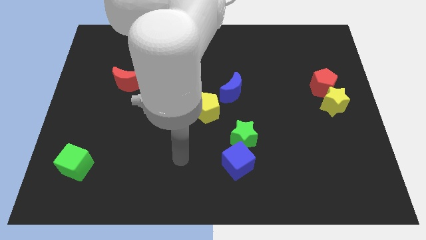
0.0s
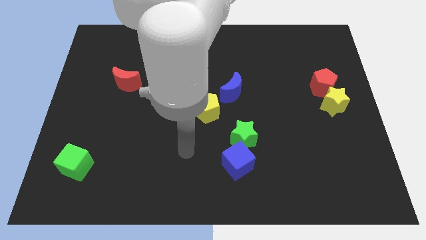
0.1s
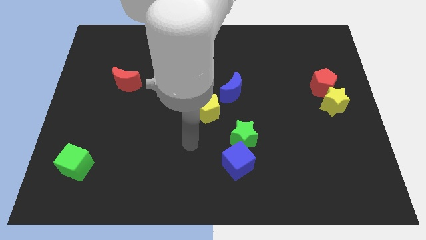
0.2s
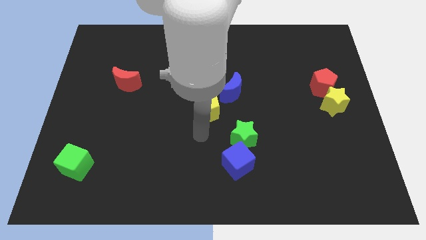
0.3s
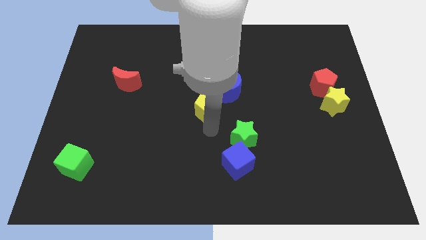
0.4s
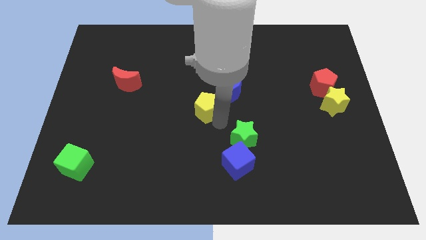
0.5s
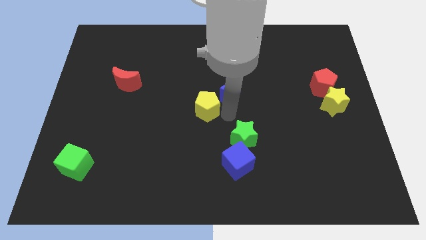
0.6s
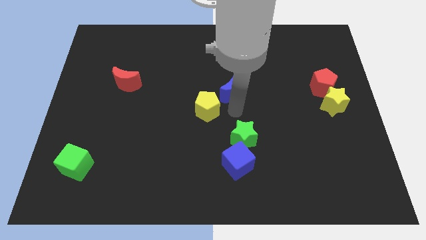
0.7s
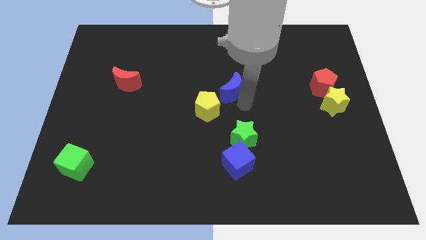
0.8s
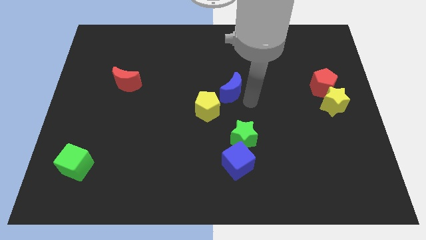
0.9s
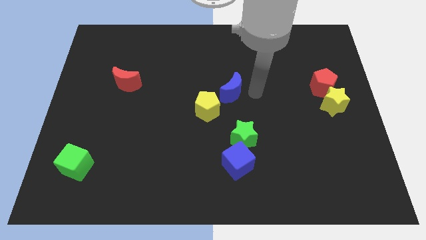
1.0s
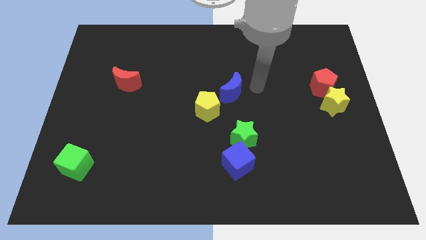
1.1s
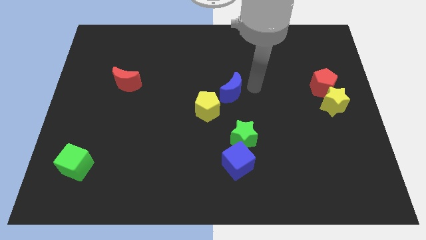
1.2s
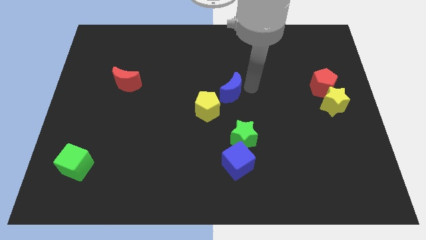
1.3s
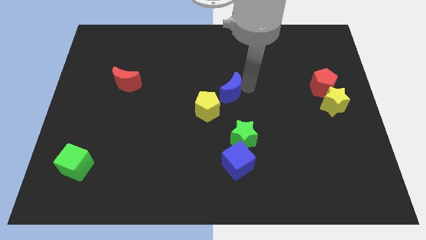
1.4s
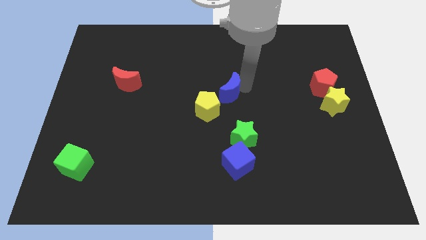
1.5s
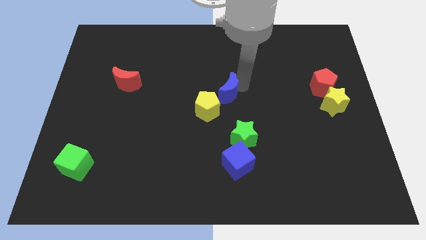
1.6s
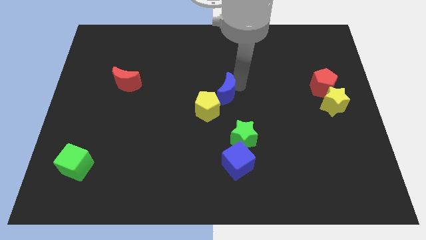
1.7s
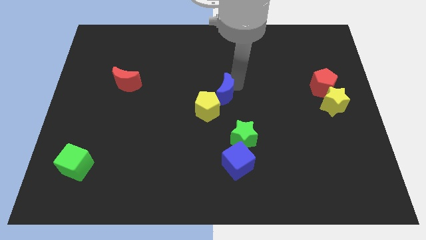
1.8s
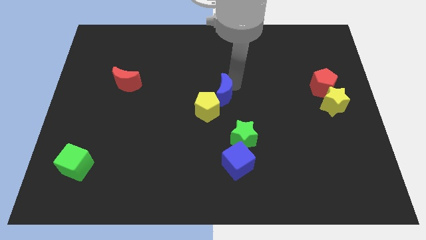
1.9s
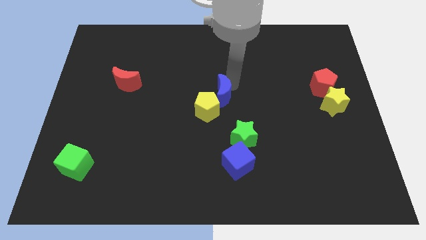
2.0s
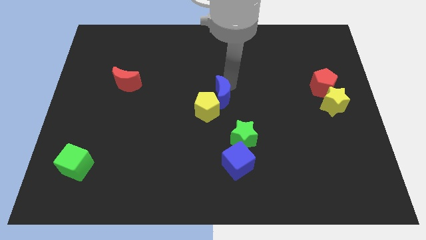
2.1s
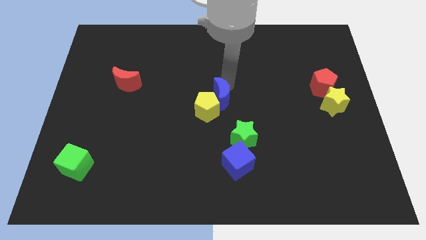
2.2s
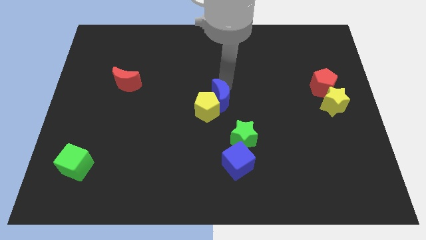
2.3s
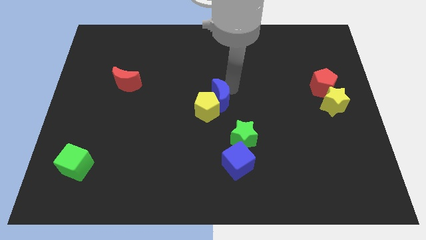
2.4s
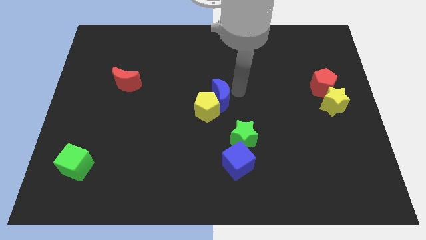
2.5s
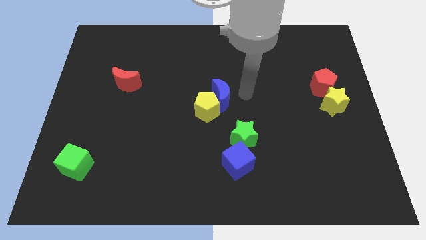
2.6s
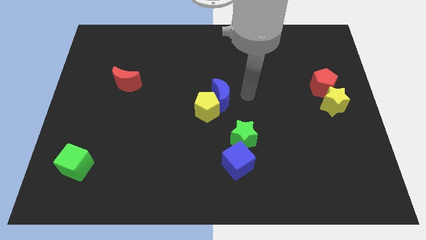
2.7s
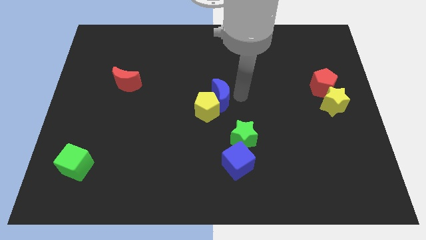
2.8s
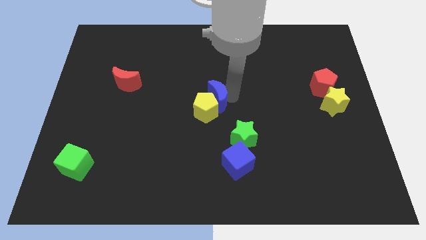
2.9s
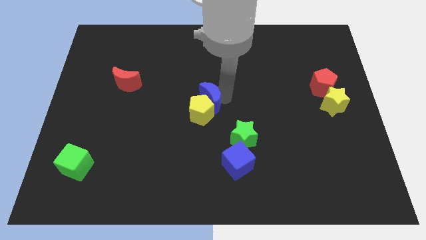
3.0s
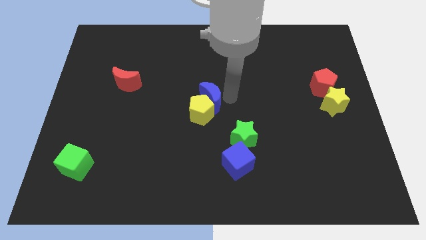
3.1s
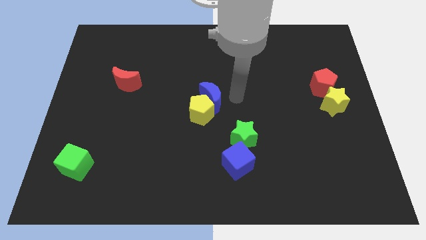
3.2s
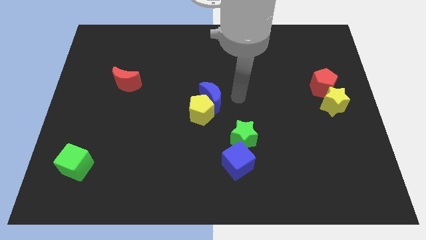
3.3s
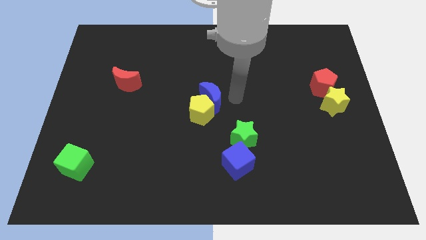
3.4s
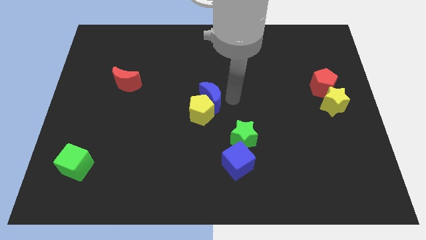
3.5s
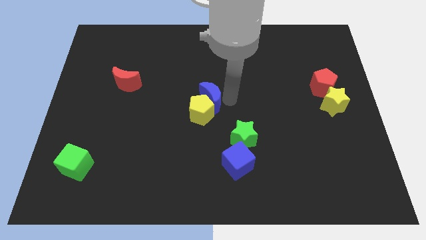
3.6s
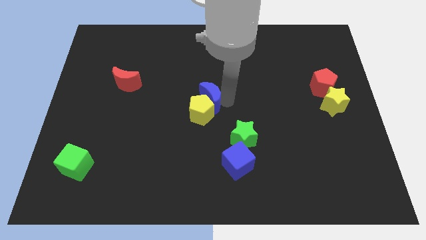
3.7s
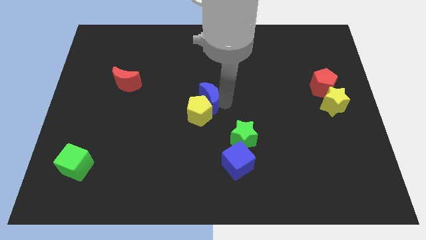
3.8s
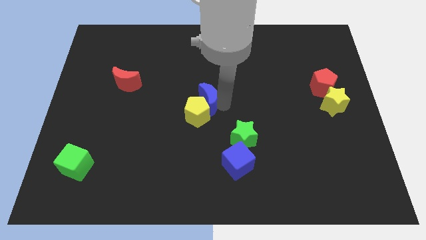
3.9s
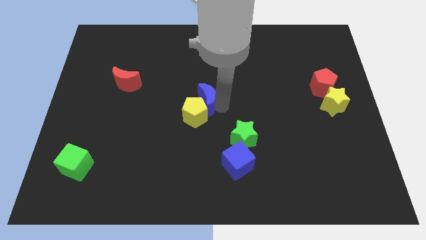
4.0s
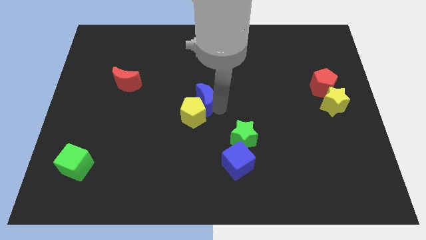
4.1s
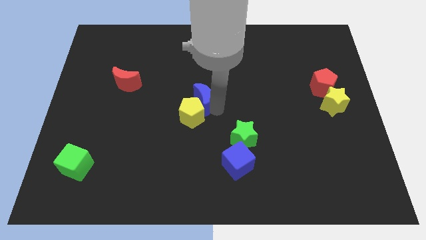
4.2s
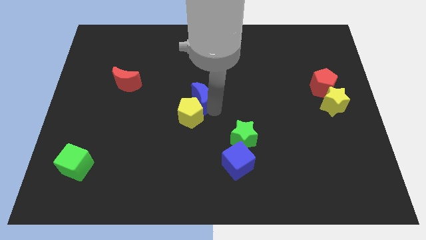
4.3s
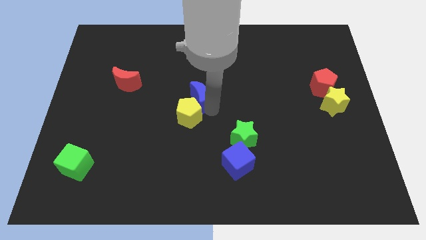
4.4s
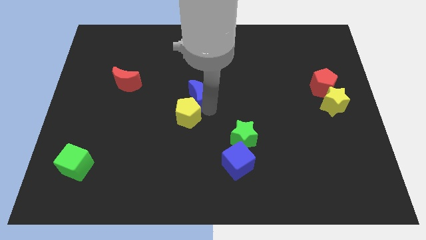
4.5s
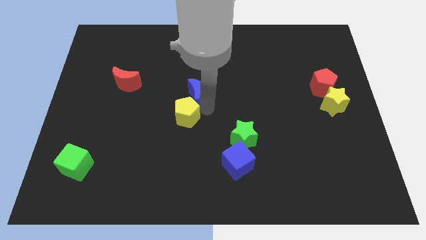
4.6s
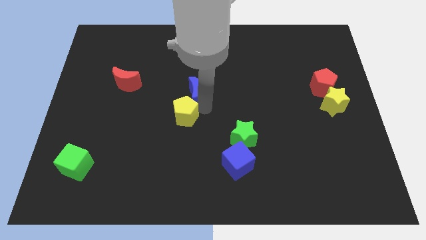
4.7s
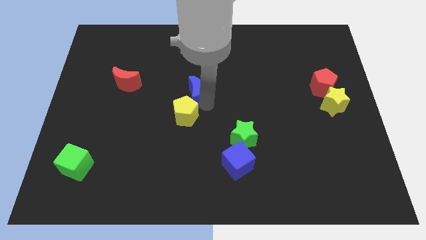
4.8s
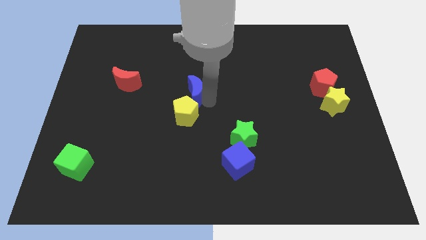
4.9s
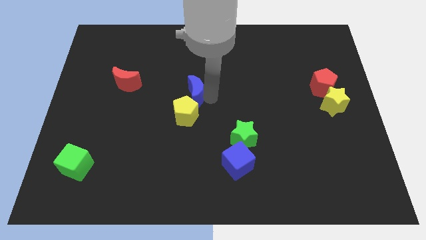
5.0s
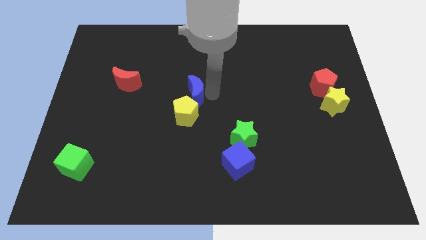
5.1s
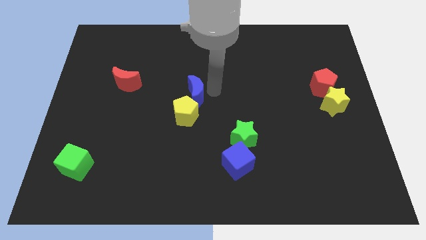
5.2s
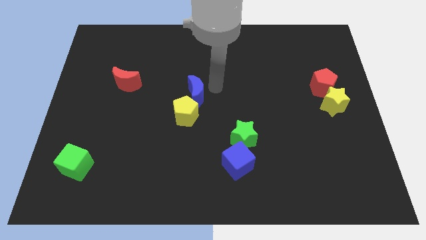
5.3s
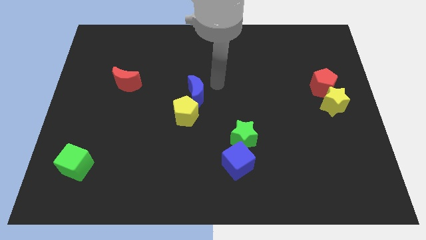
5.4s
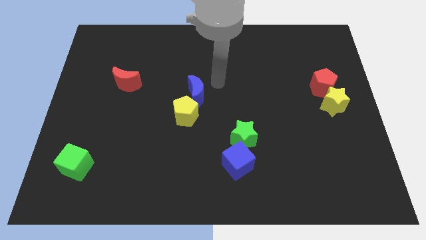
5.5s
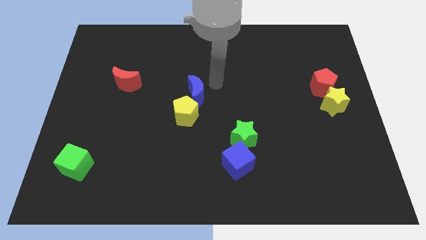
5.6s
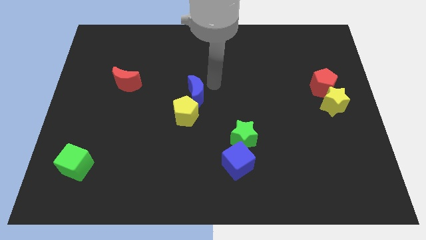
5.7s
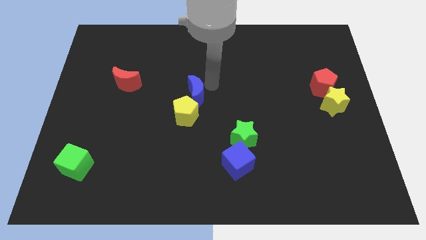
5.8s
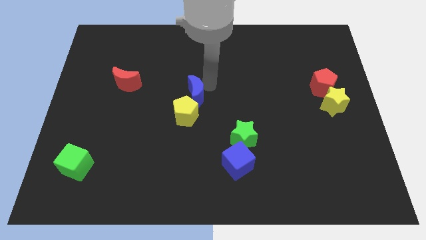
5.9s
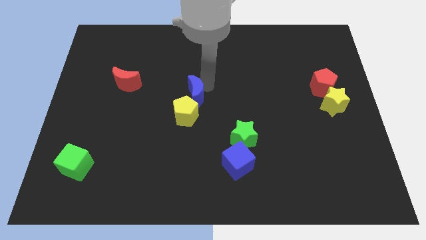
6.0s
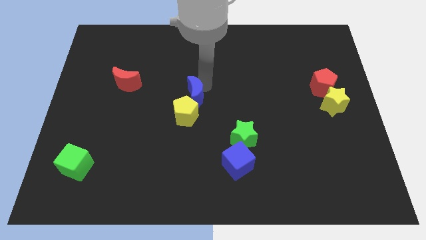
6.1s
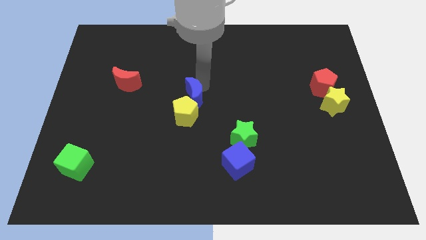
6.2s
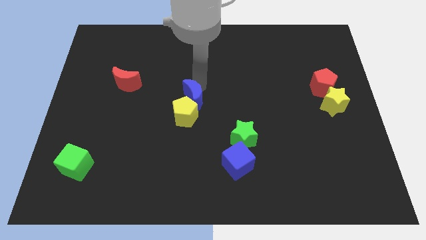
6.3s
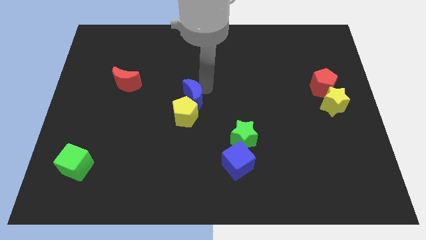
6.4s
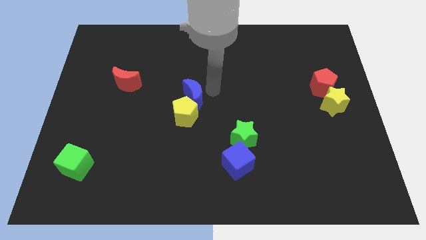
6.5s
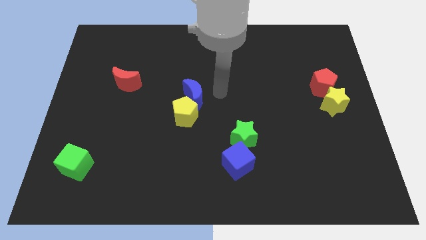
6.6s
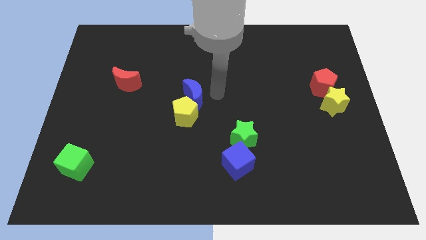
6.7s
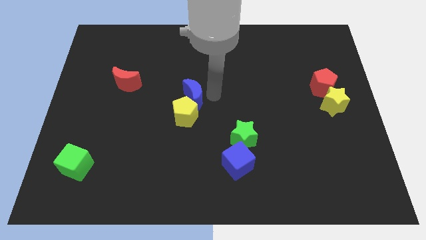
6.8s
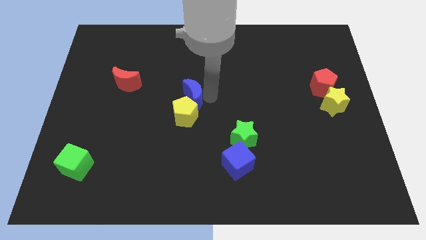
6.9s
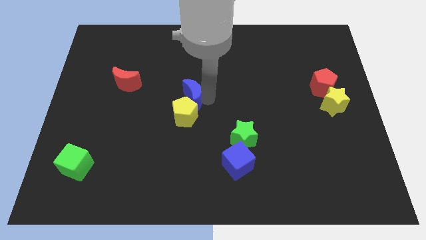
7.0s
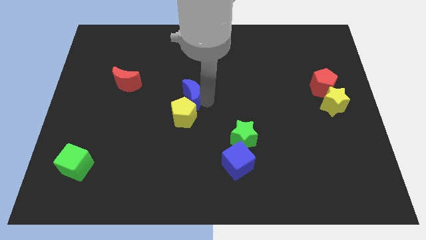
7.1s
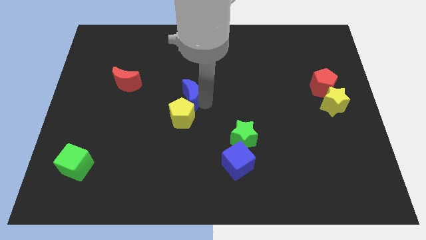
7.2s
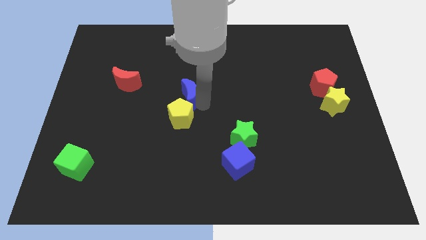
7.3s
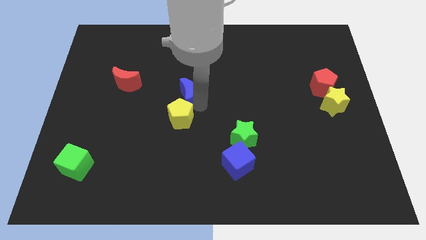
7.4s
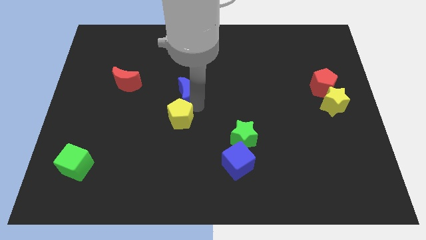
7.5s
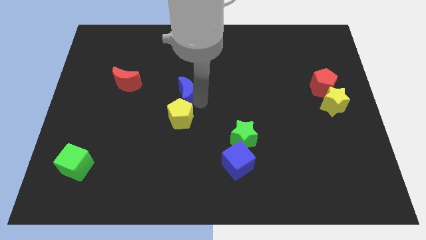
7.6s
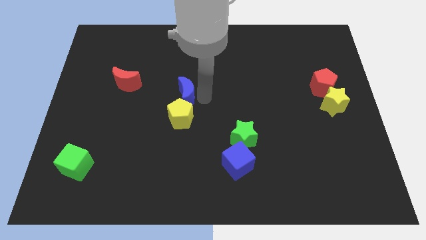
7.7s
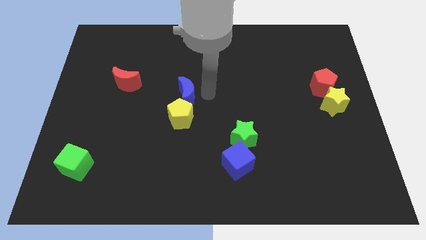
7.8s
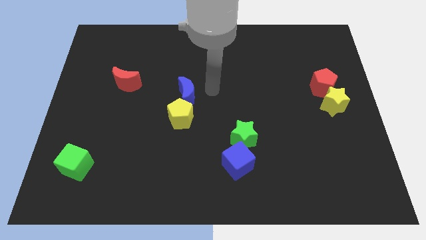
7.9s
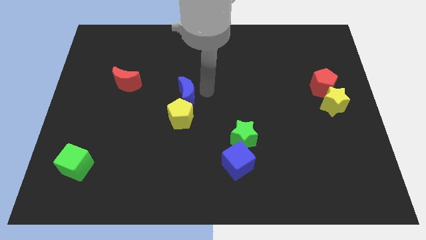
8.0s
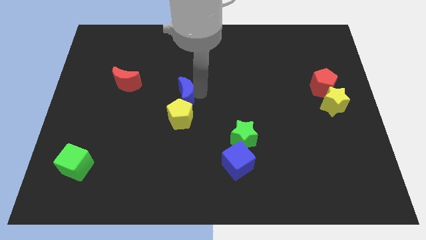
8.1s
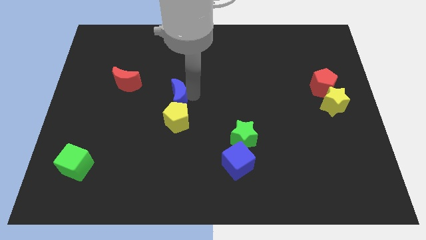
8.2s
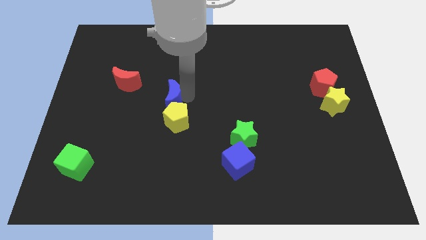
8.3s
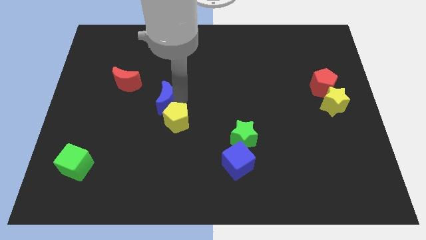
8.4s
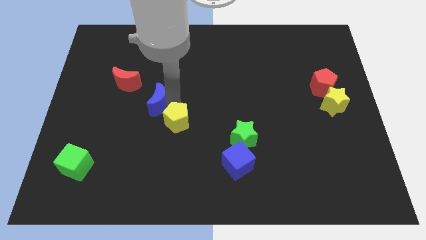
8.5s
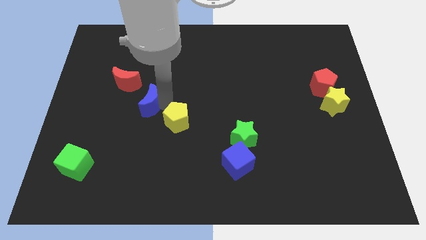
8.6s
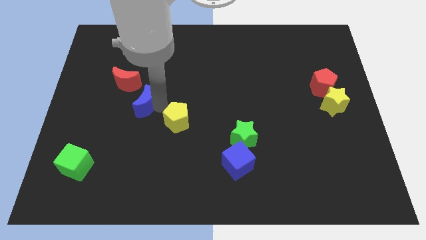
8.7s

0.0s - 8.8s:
move the blue moon left
